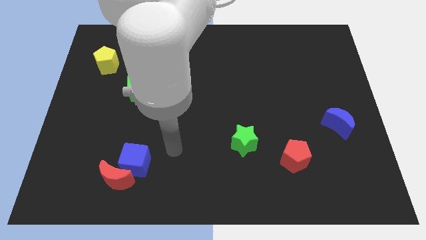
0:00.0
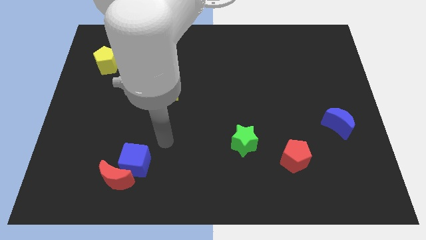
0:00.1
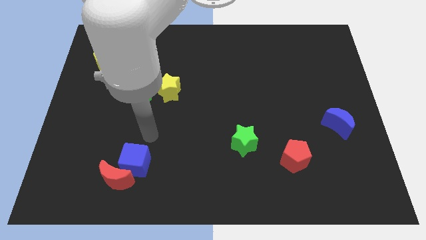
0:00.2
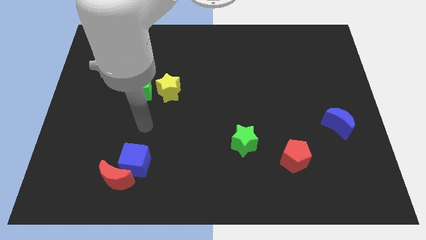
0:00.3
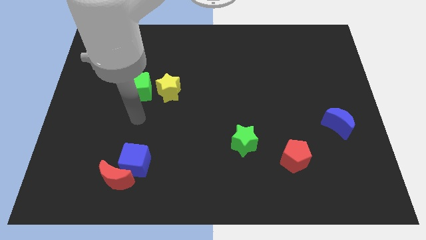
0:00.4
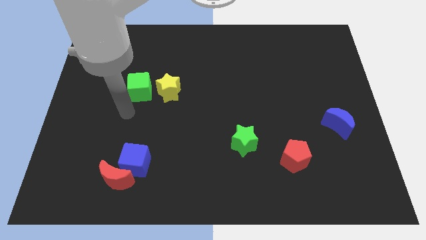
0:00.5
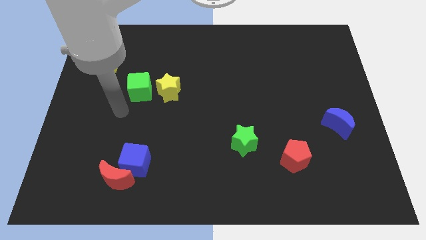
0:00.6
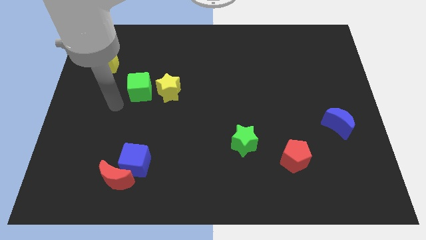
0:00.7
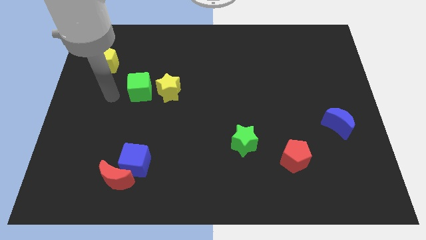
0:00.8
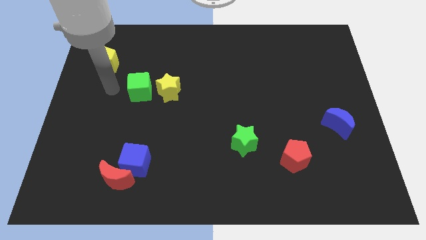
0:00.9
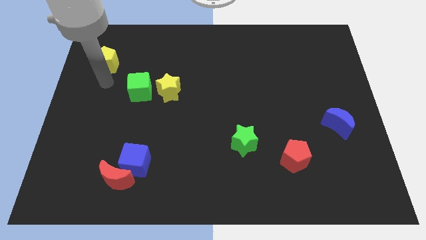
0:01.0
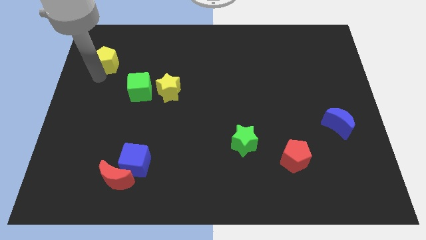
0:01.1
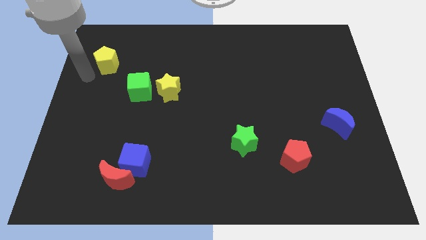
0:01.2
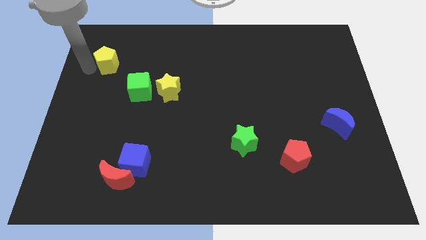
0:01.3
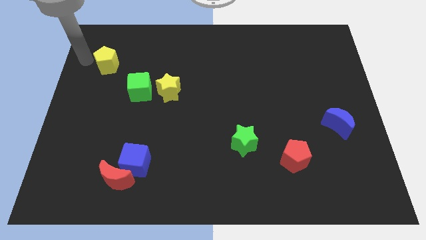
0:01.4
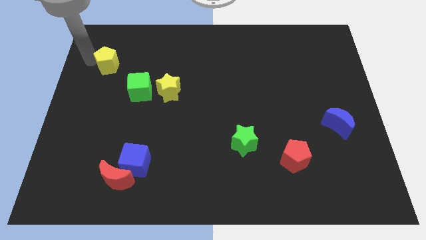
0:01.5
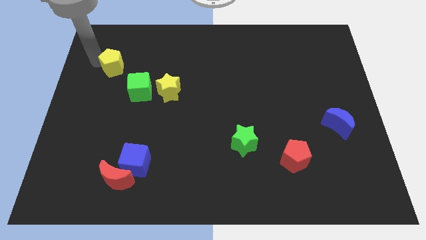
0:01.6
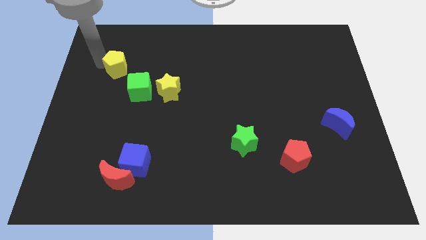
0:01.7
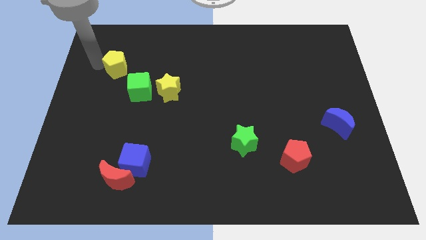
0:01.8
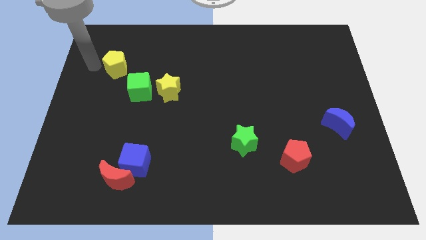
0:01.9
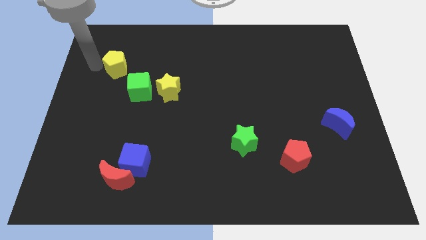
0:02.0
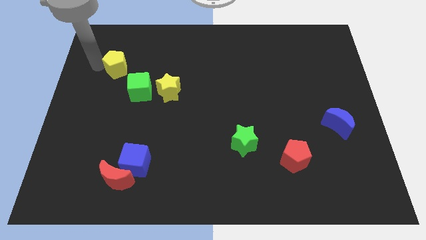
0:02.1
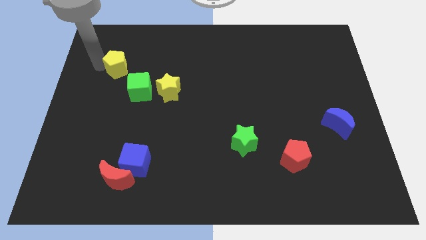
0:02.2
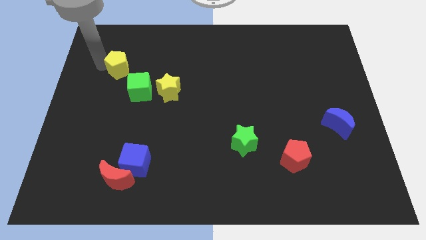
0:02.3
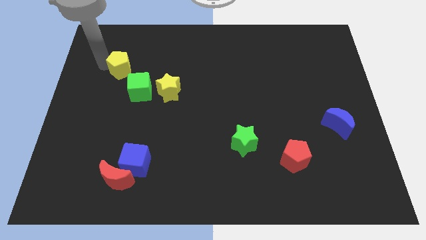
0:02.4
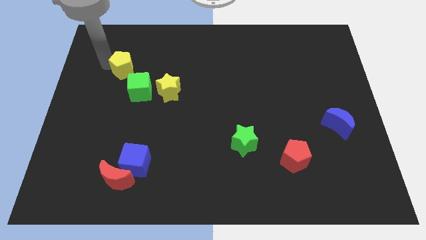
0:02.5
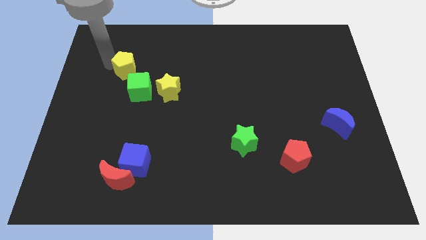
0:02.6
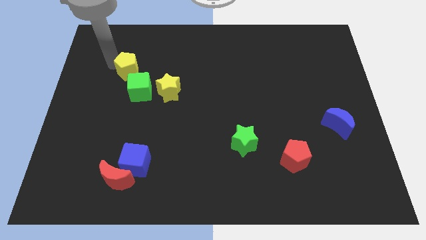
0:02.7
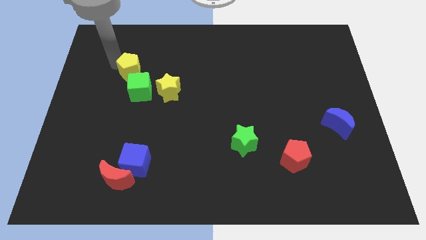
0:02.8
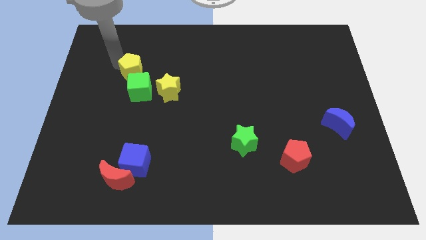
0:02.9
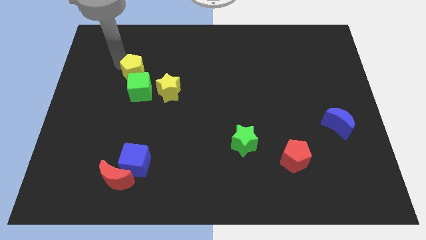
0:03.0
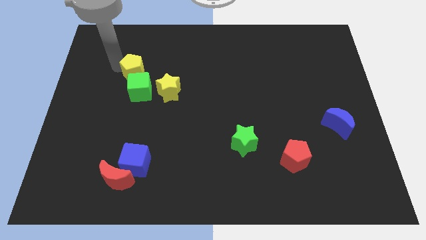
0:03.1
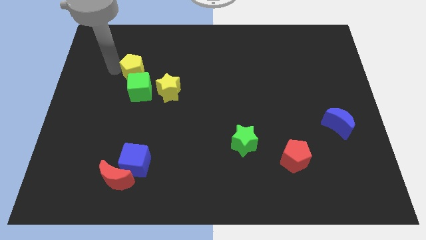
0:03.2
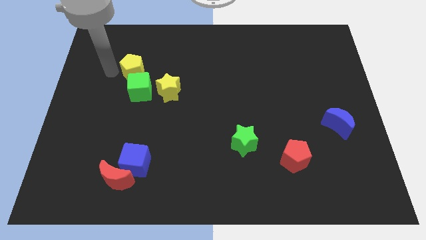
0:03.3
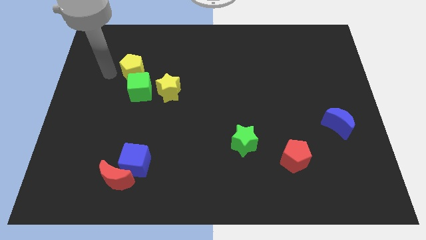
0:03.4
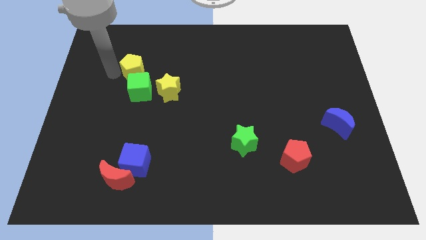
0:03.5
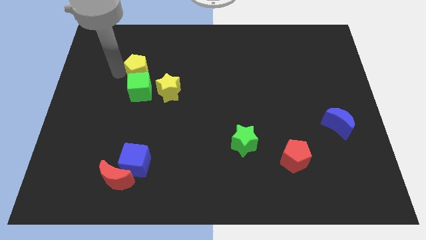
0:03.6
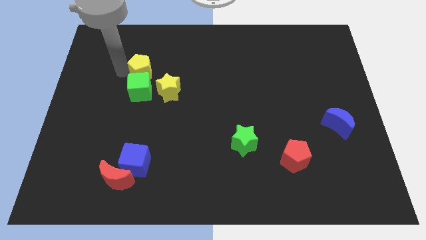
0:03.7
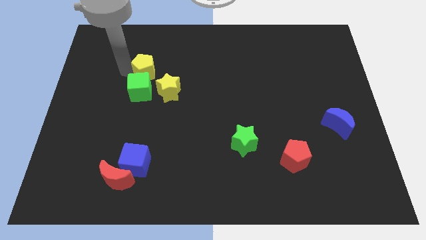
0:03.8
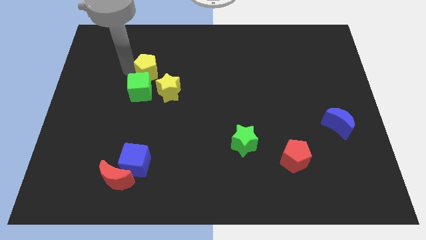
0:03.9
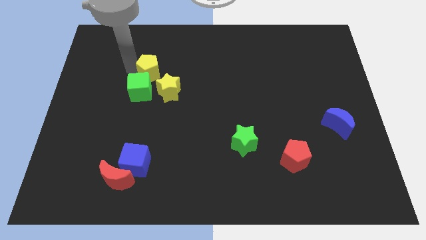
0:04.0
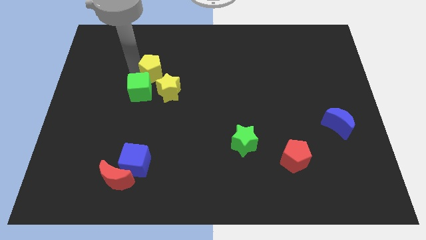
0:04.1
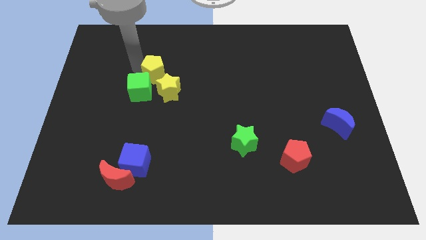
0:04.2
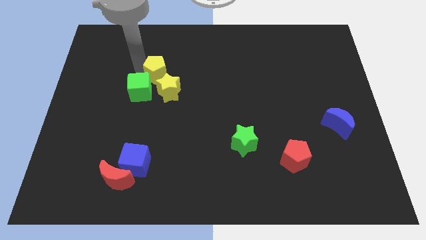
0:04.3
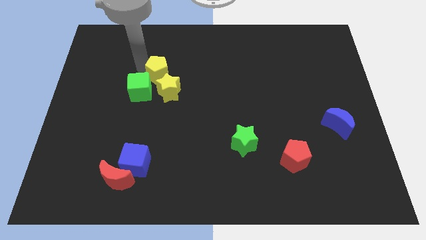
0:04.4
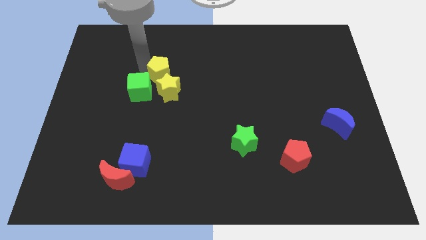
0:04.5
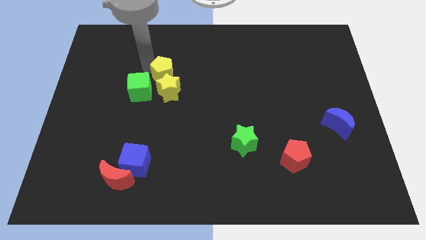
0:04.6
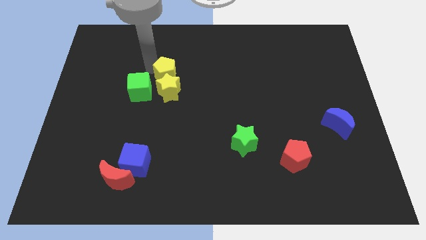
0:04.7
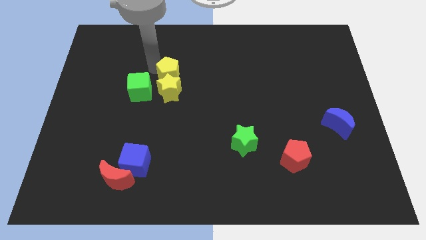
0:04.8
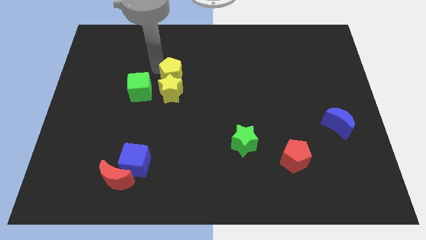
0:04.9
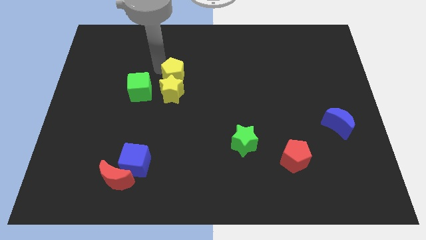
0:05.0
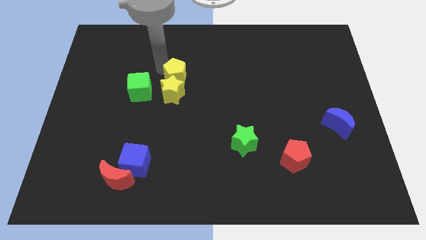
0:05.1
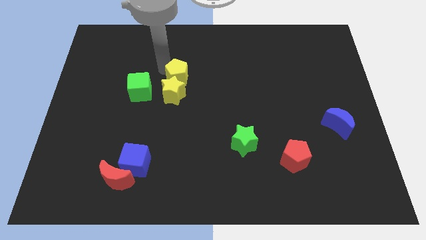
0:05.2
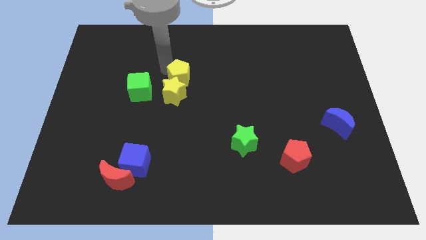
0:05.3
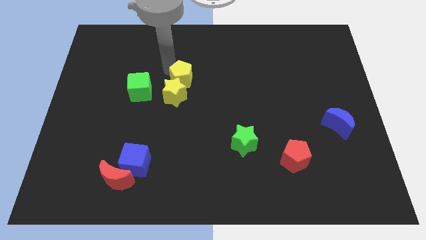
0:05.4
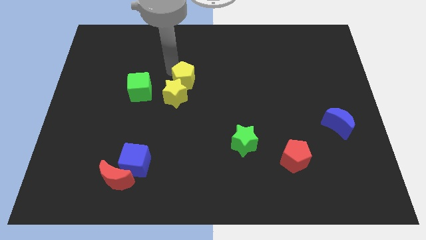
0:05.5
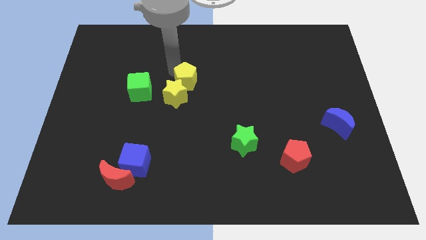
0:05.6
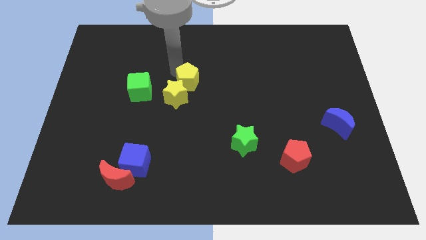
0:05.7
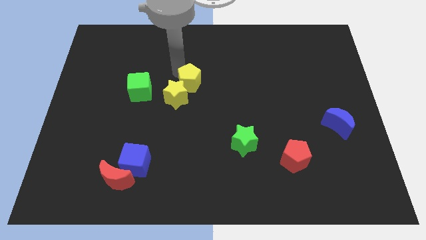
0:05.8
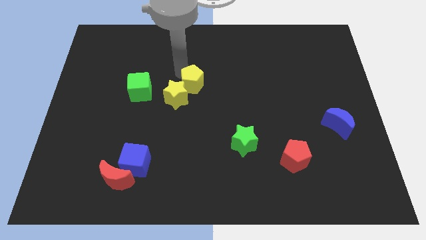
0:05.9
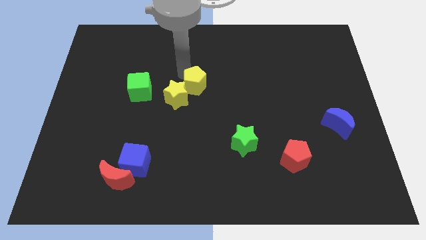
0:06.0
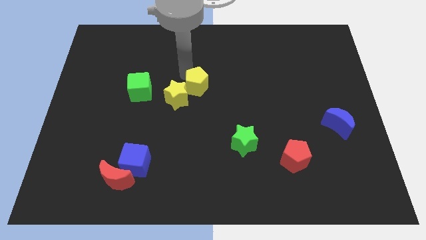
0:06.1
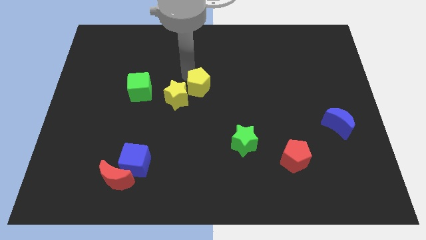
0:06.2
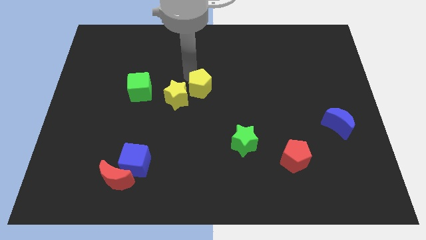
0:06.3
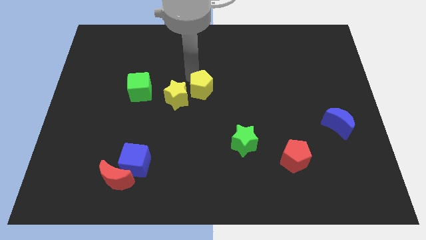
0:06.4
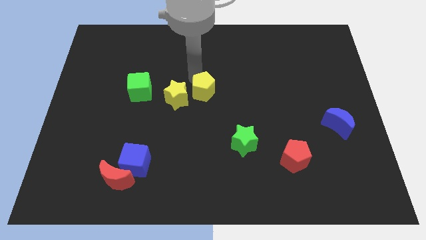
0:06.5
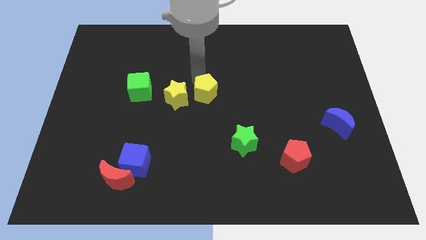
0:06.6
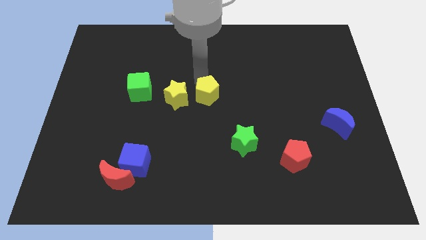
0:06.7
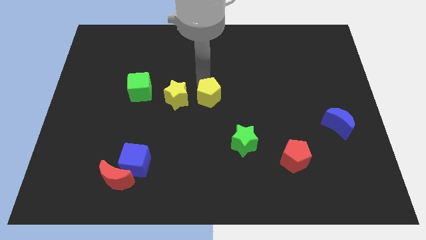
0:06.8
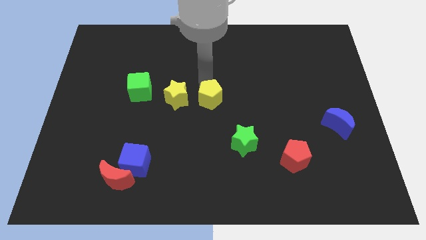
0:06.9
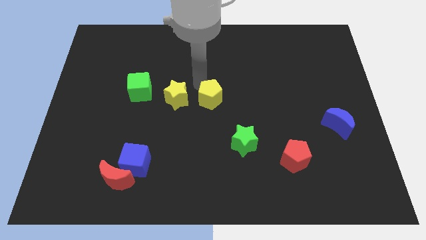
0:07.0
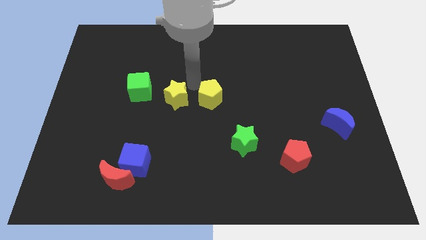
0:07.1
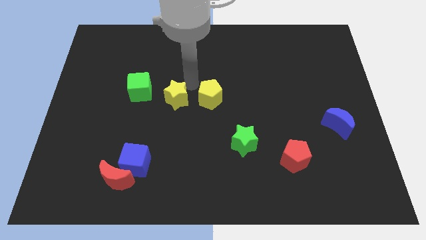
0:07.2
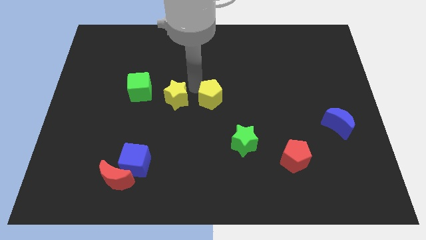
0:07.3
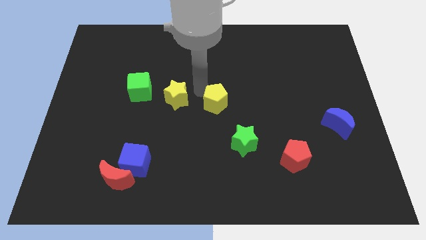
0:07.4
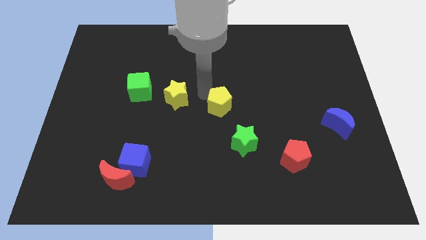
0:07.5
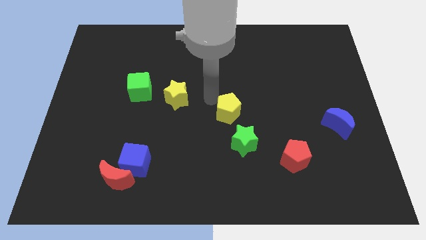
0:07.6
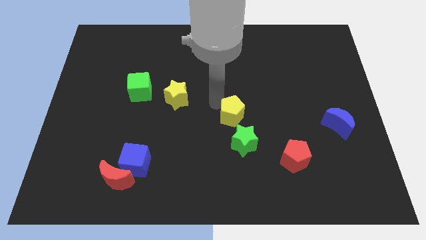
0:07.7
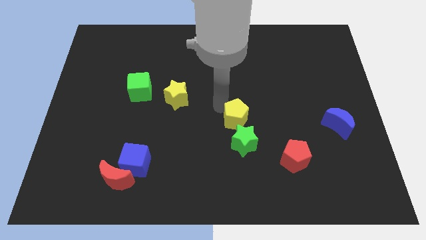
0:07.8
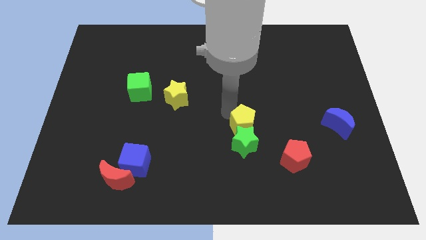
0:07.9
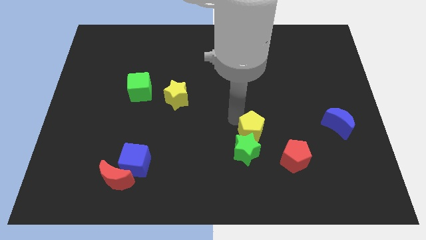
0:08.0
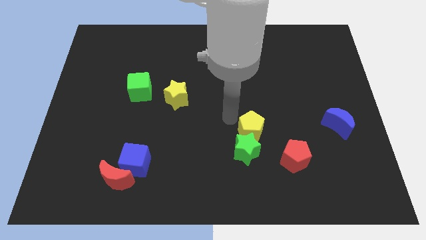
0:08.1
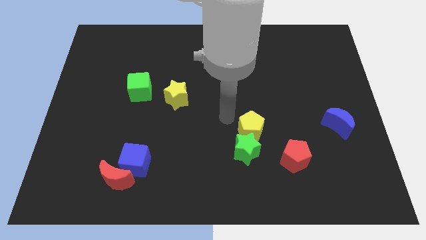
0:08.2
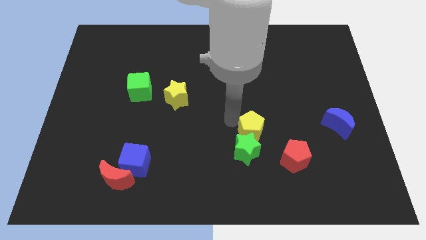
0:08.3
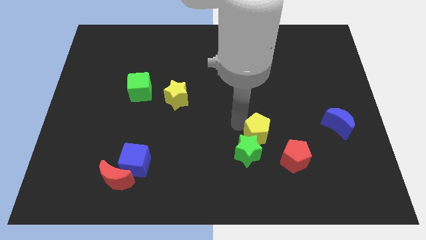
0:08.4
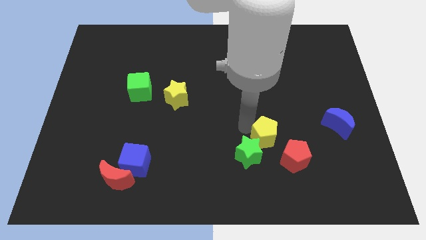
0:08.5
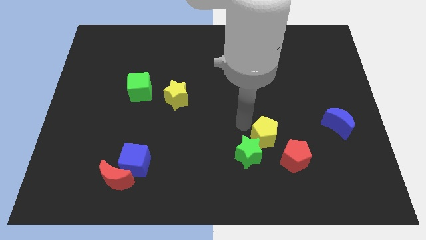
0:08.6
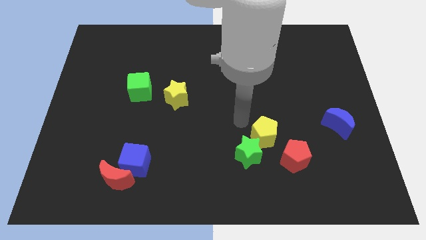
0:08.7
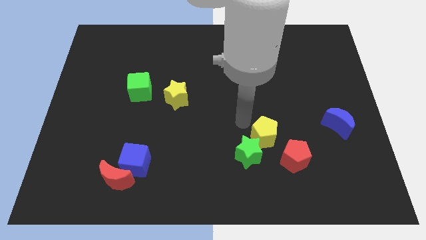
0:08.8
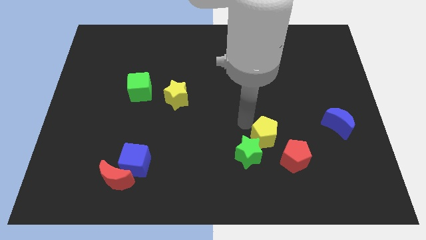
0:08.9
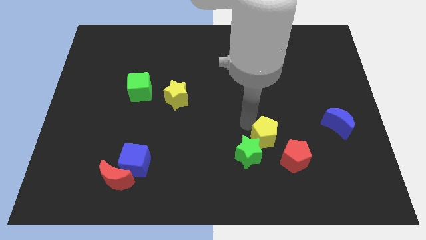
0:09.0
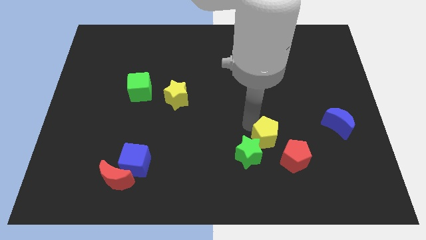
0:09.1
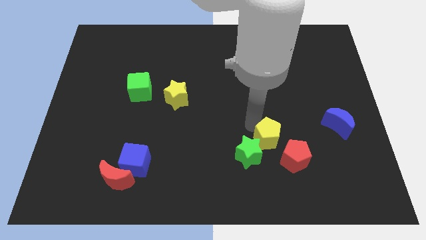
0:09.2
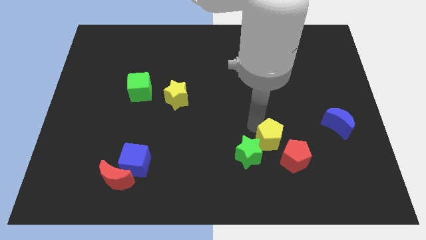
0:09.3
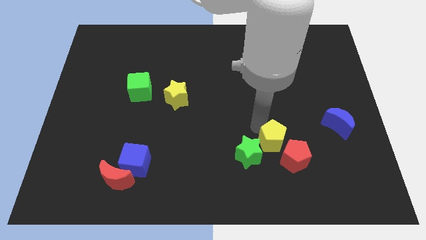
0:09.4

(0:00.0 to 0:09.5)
move the yellow pentagon next to the red pentagon
